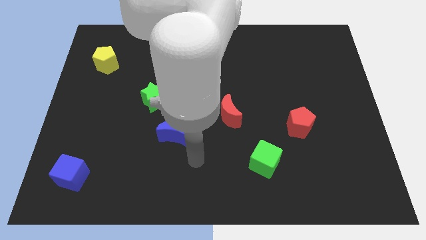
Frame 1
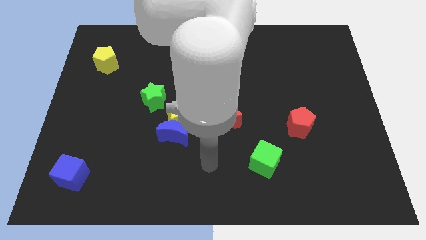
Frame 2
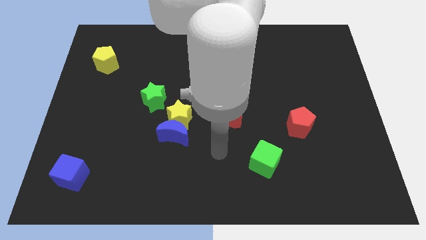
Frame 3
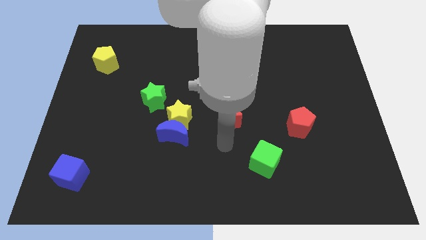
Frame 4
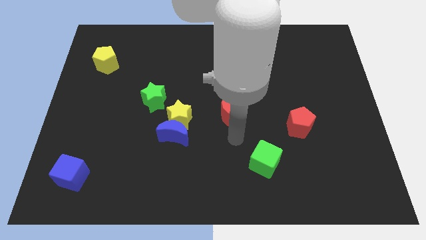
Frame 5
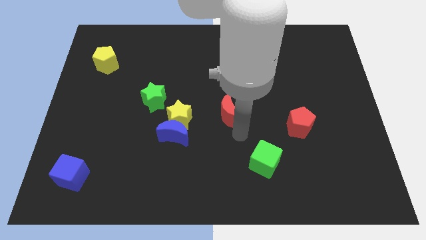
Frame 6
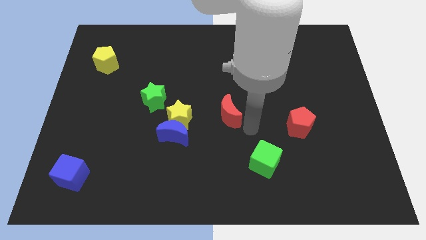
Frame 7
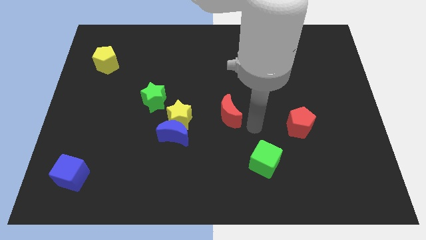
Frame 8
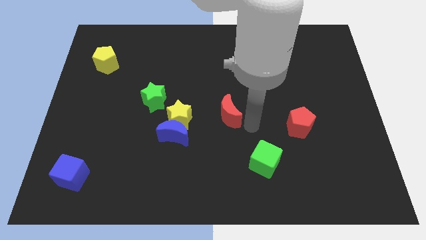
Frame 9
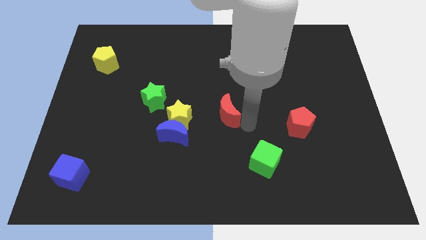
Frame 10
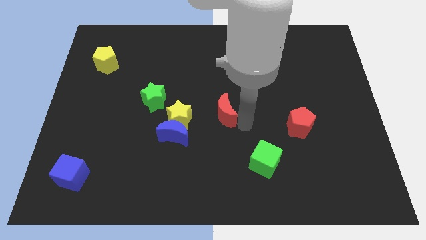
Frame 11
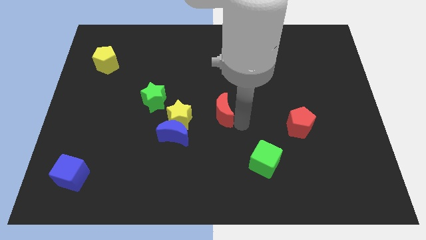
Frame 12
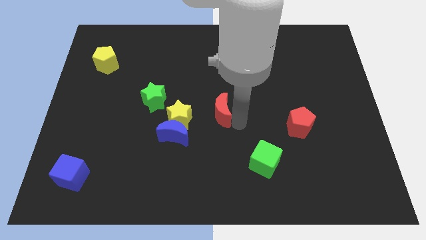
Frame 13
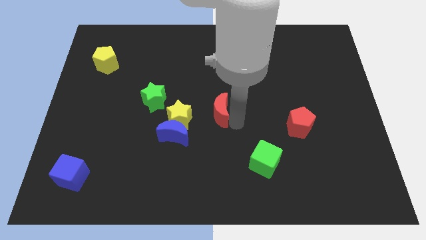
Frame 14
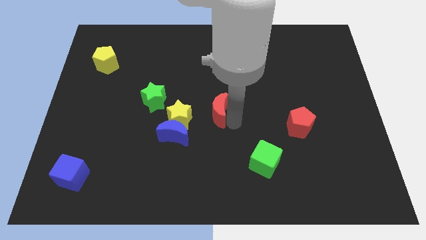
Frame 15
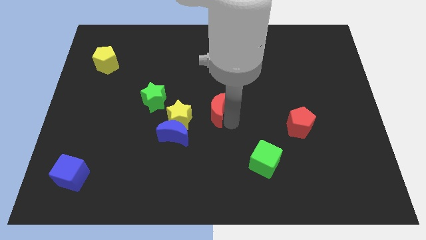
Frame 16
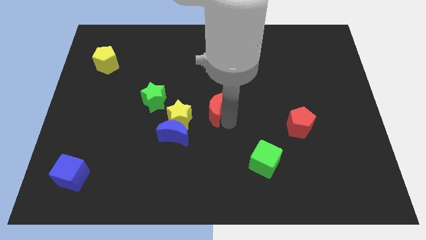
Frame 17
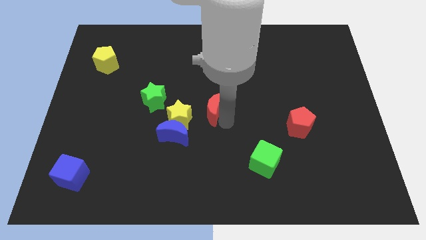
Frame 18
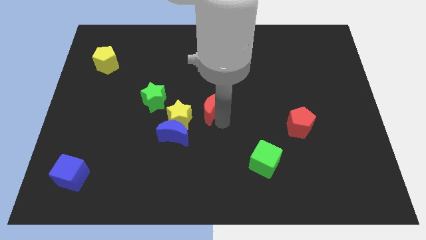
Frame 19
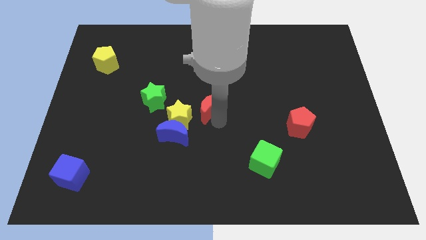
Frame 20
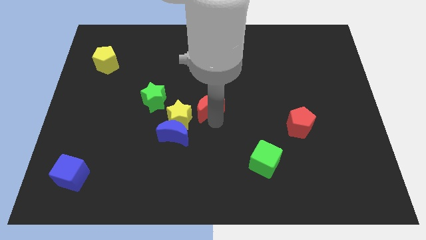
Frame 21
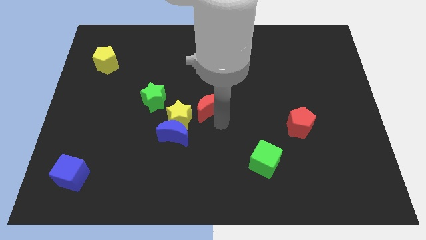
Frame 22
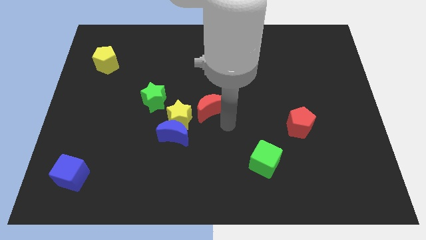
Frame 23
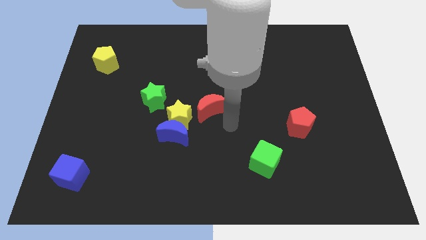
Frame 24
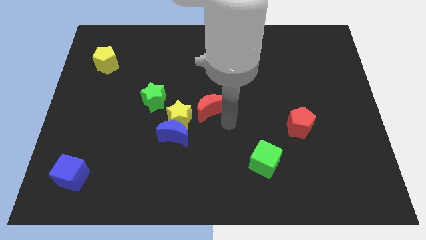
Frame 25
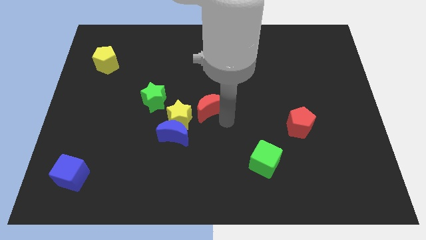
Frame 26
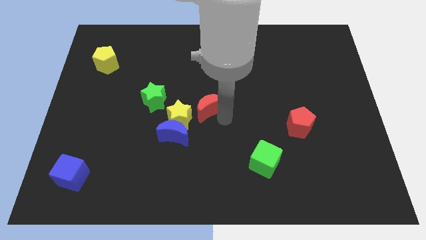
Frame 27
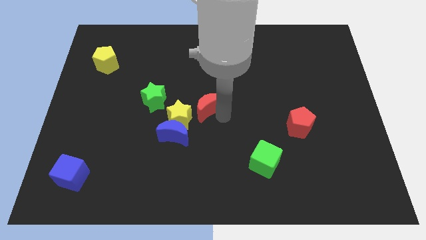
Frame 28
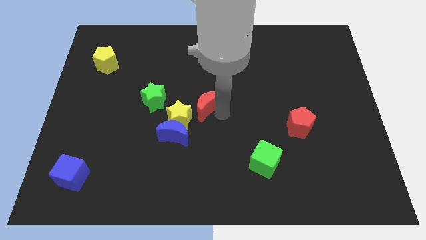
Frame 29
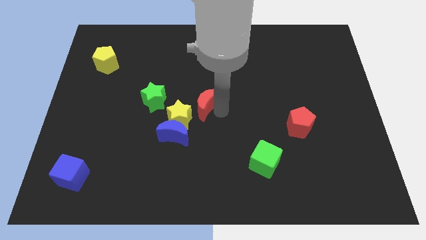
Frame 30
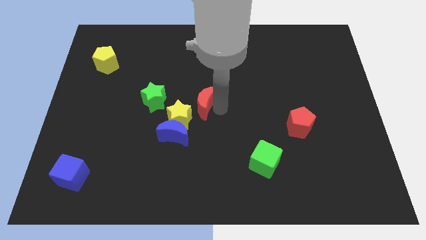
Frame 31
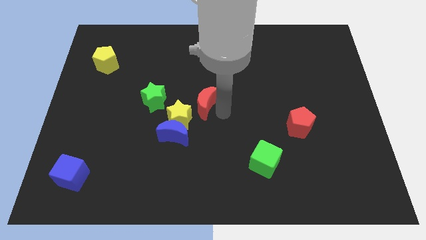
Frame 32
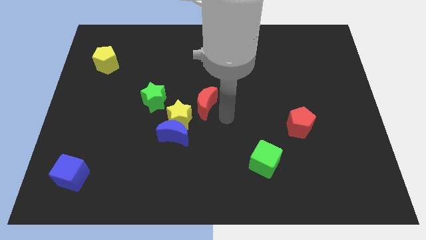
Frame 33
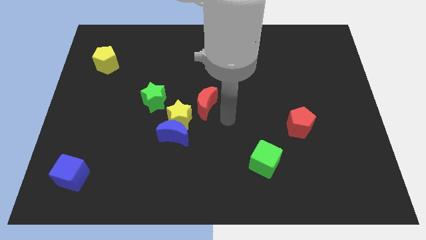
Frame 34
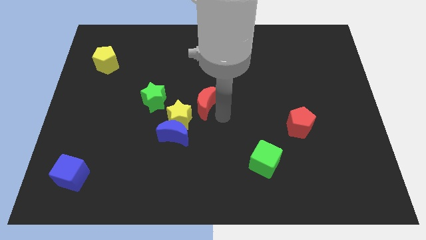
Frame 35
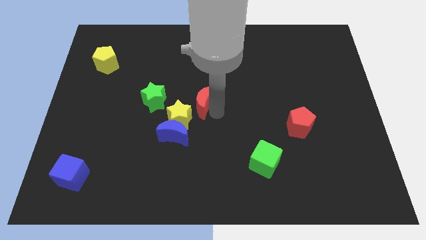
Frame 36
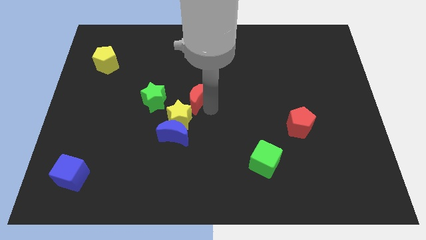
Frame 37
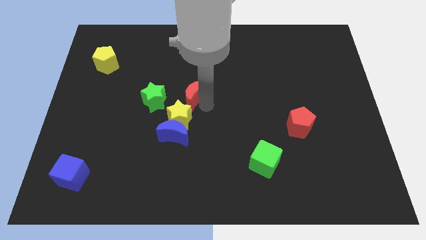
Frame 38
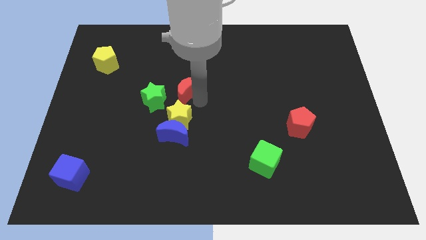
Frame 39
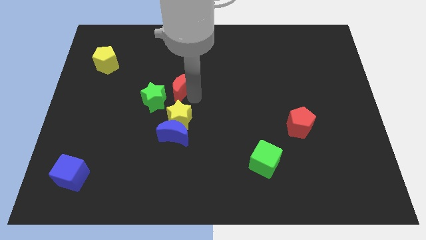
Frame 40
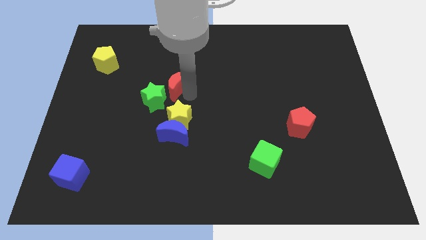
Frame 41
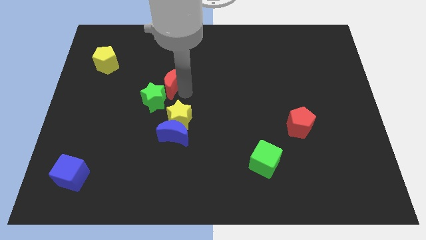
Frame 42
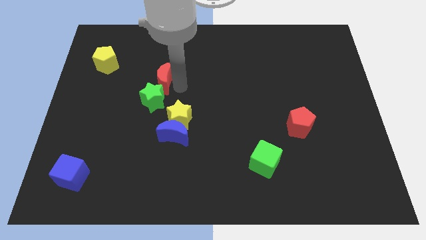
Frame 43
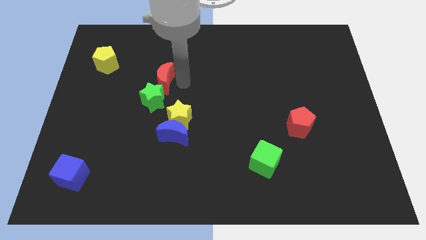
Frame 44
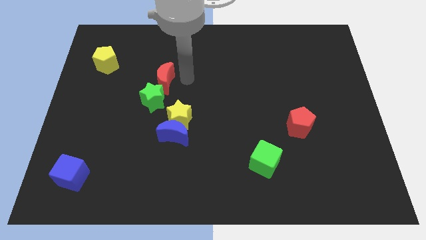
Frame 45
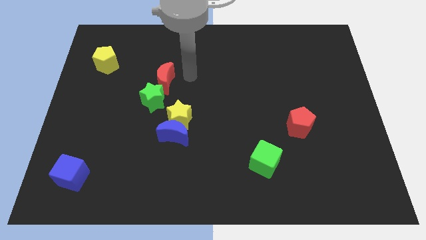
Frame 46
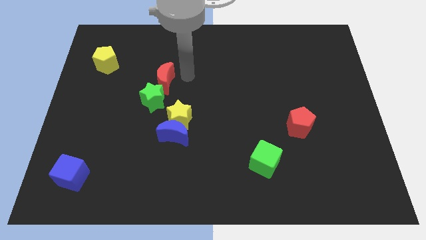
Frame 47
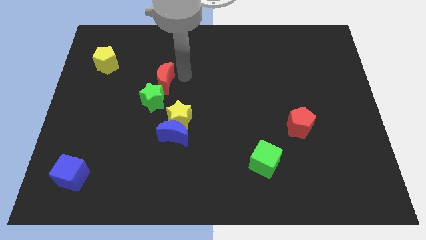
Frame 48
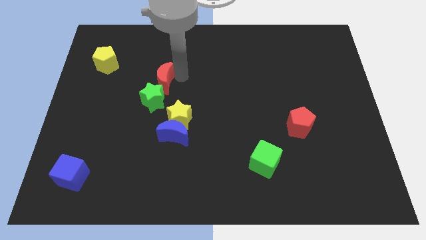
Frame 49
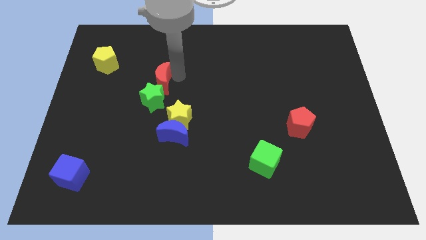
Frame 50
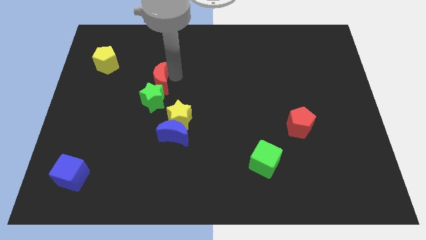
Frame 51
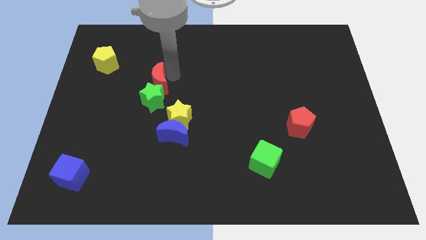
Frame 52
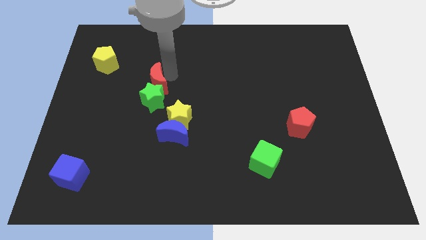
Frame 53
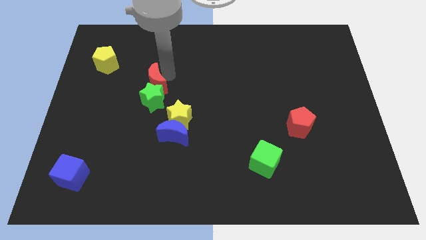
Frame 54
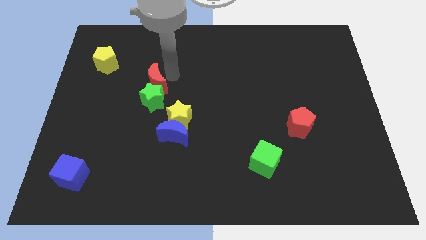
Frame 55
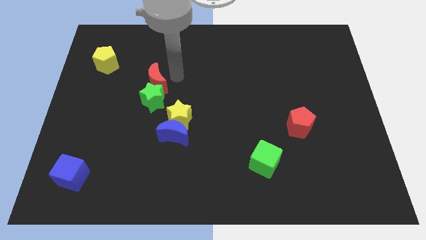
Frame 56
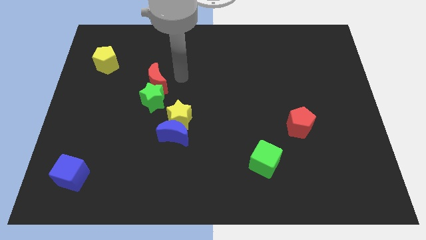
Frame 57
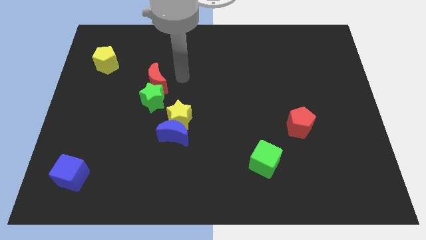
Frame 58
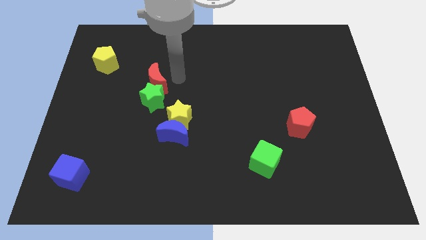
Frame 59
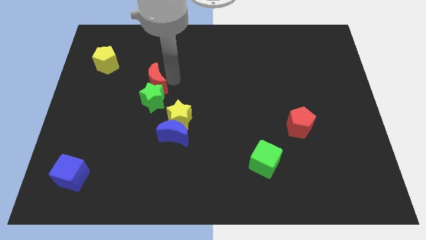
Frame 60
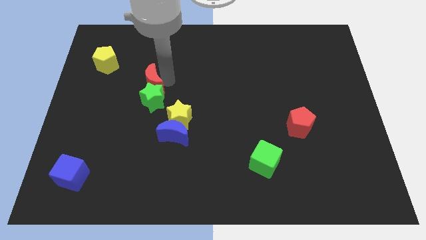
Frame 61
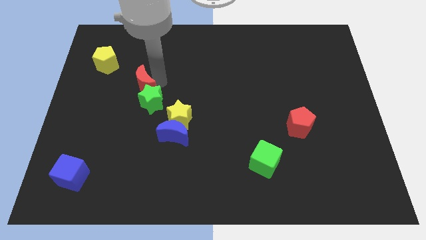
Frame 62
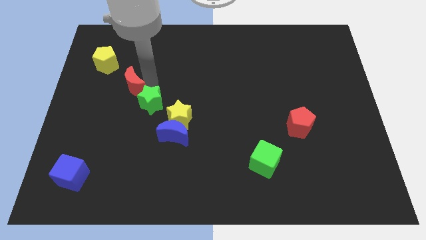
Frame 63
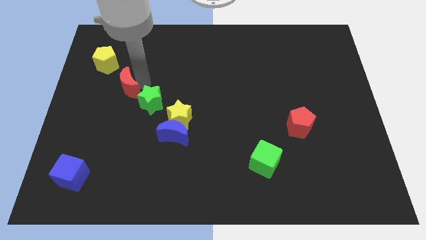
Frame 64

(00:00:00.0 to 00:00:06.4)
slide the red moon to the left side of the green star

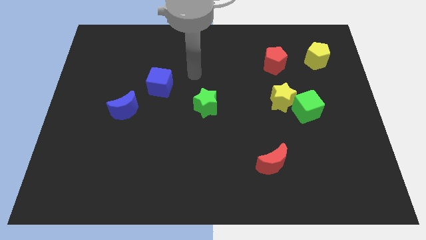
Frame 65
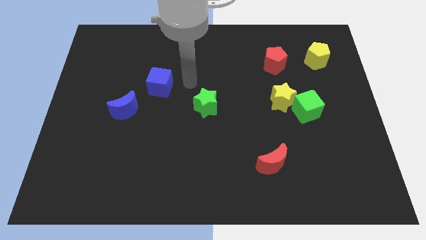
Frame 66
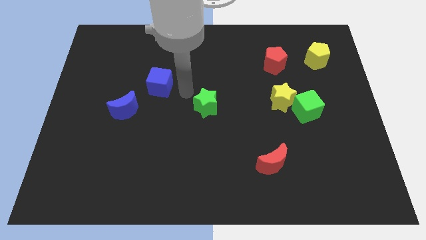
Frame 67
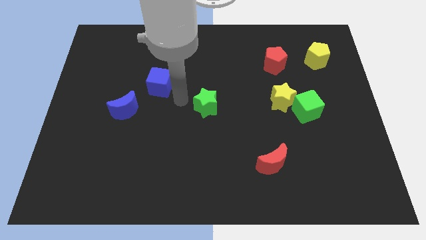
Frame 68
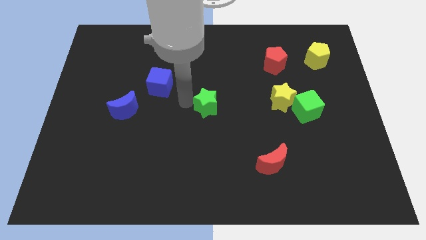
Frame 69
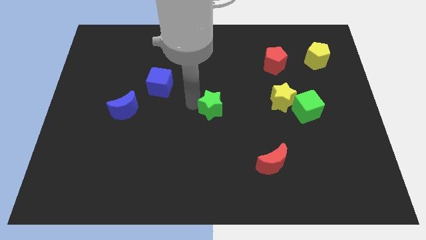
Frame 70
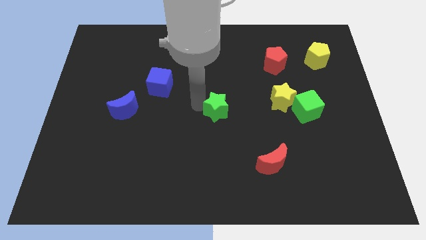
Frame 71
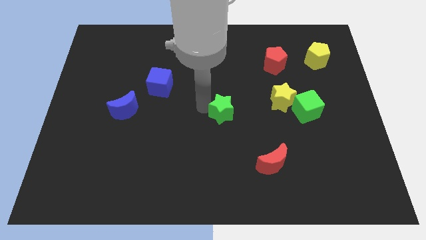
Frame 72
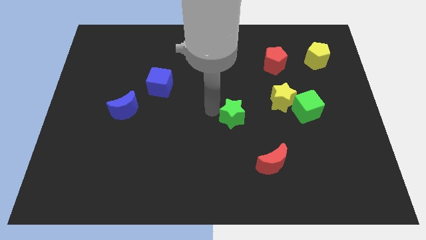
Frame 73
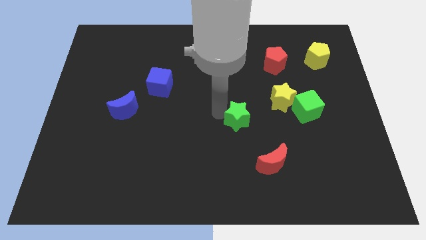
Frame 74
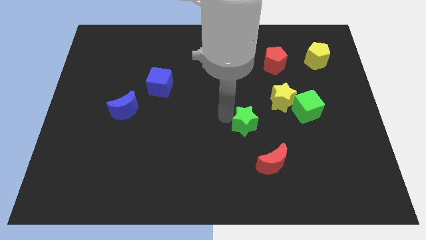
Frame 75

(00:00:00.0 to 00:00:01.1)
put the green star to the bottom left of the yellow star
